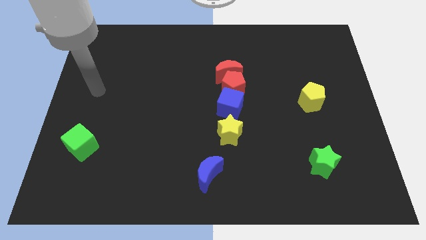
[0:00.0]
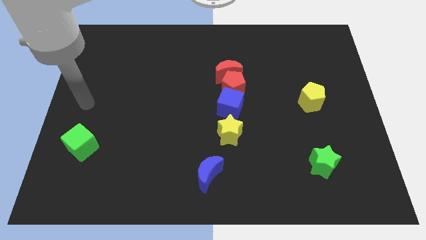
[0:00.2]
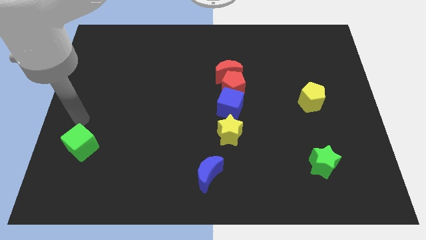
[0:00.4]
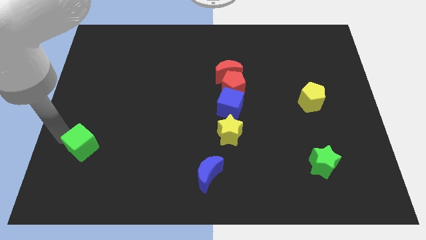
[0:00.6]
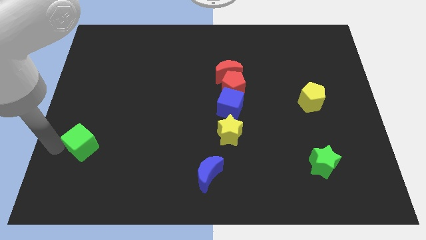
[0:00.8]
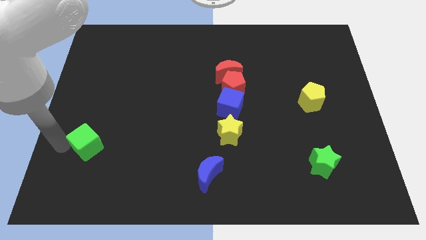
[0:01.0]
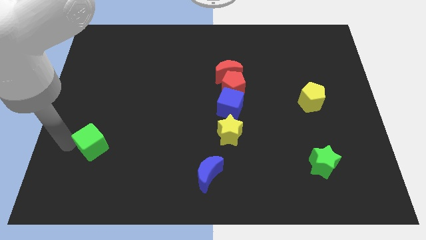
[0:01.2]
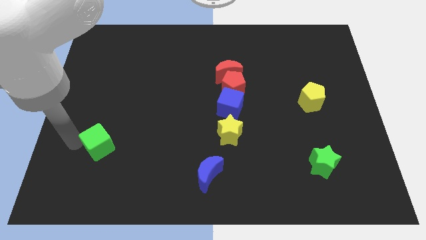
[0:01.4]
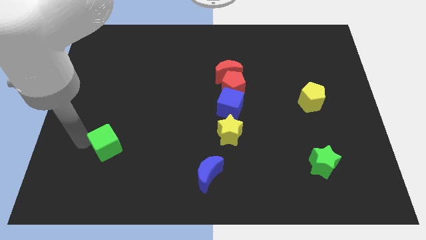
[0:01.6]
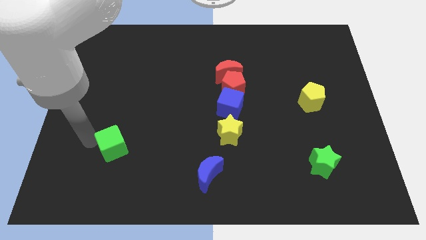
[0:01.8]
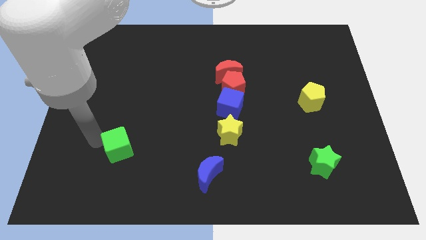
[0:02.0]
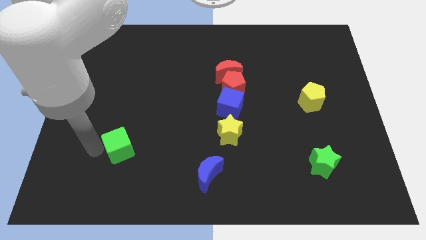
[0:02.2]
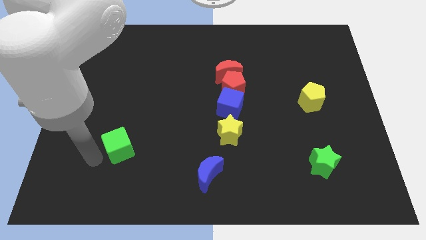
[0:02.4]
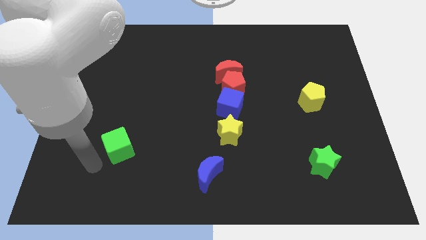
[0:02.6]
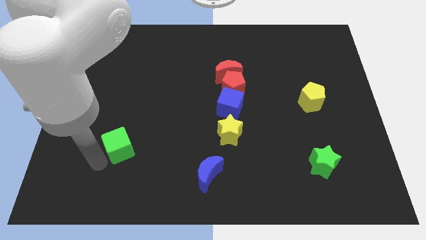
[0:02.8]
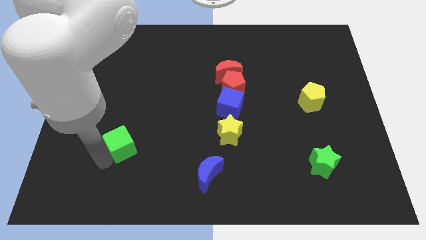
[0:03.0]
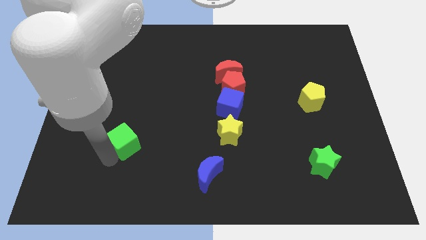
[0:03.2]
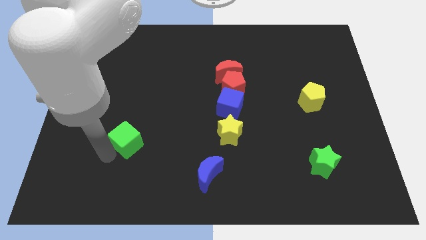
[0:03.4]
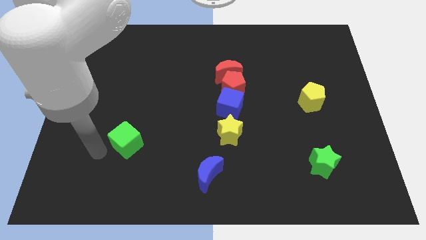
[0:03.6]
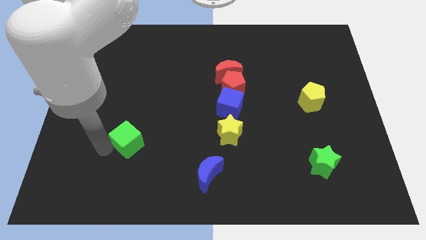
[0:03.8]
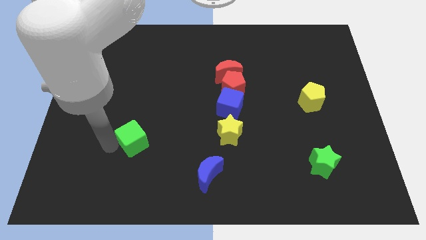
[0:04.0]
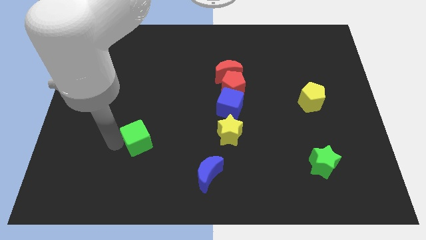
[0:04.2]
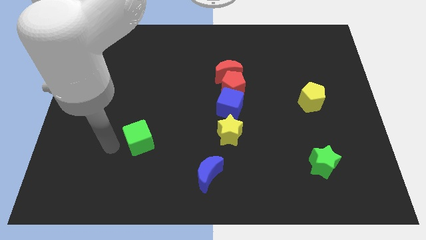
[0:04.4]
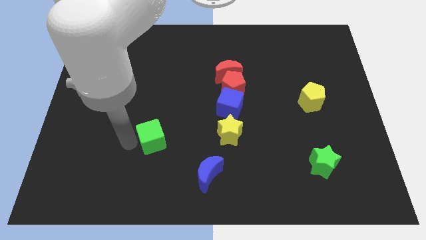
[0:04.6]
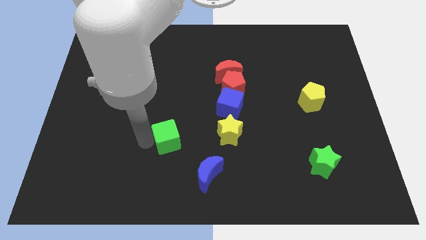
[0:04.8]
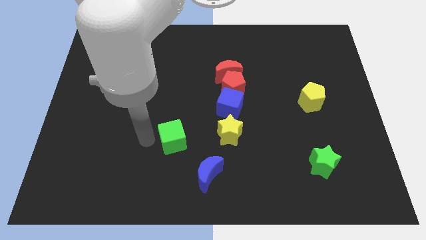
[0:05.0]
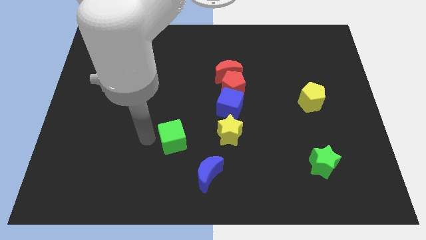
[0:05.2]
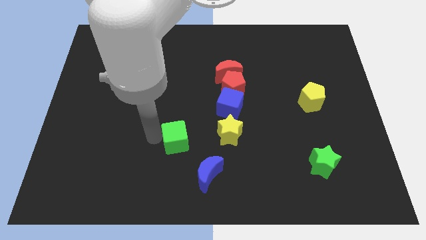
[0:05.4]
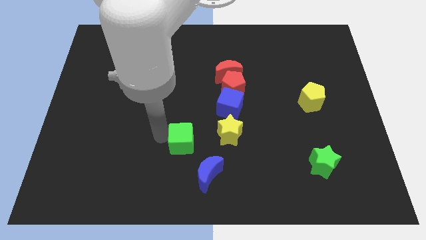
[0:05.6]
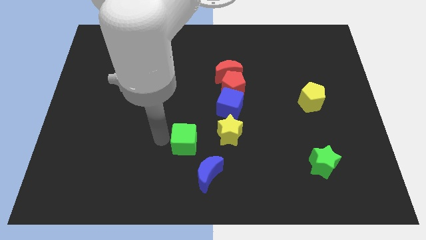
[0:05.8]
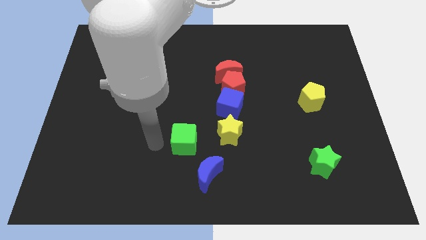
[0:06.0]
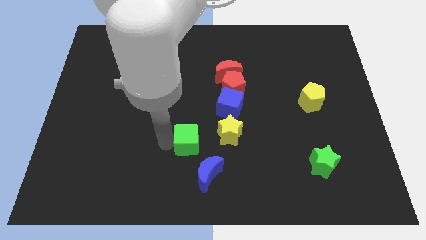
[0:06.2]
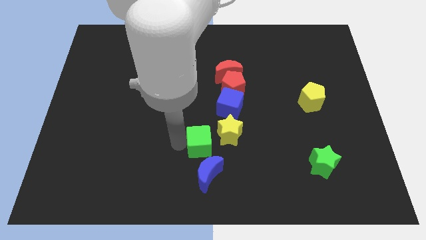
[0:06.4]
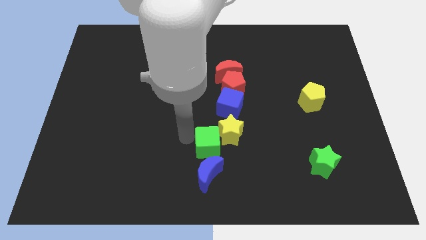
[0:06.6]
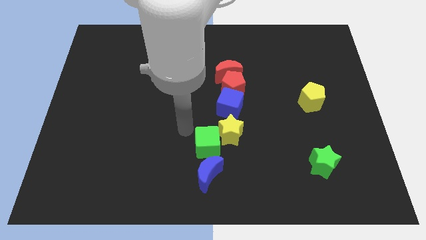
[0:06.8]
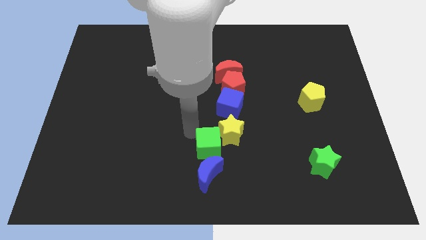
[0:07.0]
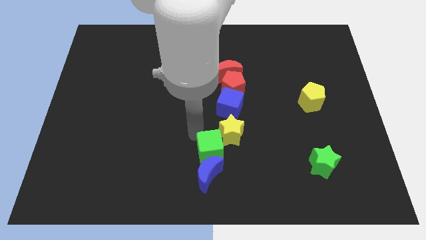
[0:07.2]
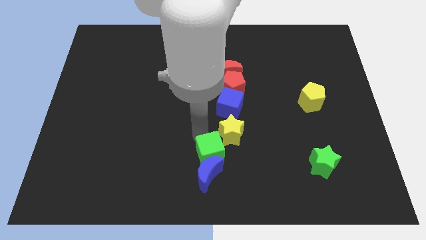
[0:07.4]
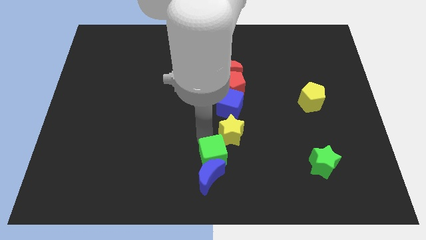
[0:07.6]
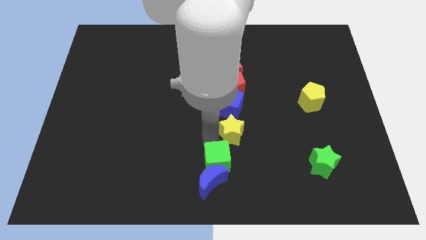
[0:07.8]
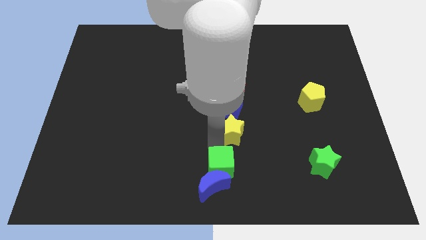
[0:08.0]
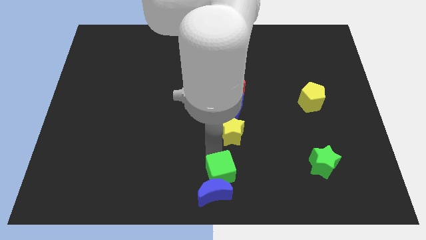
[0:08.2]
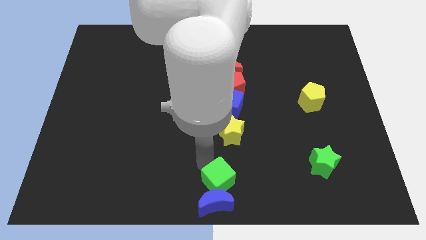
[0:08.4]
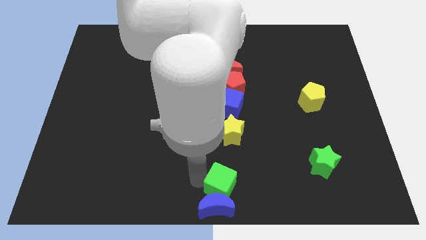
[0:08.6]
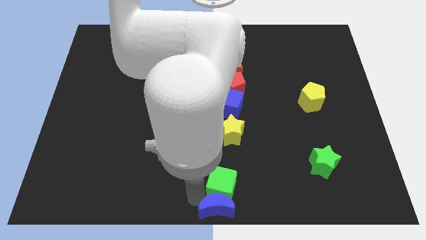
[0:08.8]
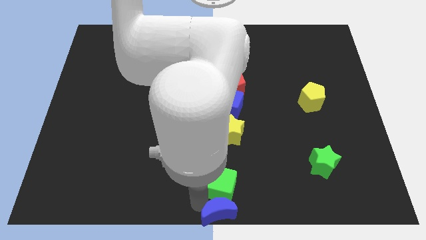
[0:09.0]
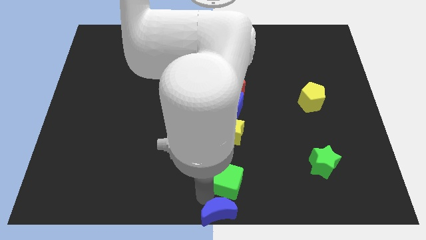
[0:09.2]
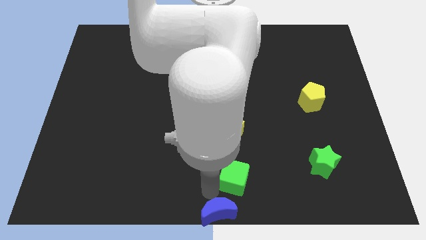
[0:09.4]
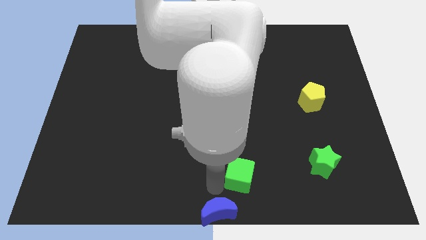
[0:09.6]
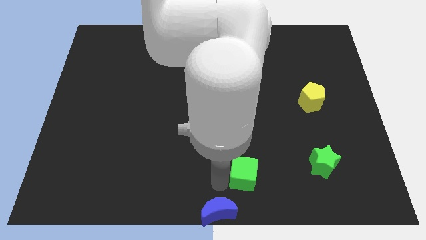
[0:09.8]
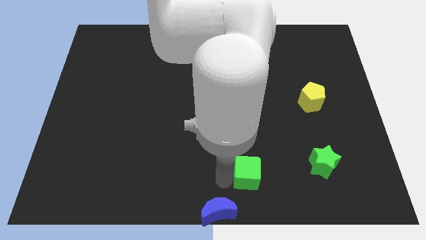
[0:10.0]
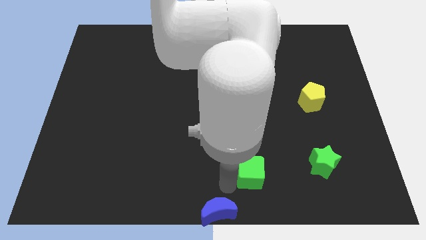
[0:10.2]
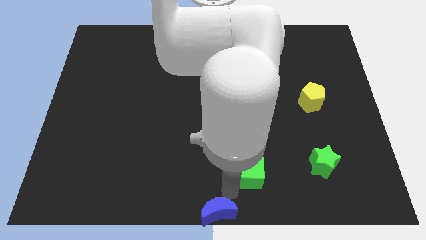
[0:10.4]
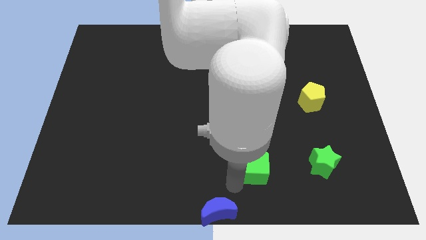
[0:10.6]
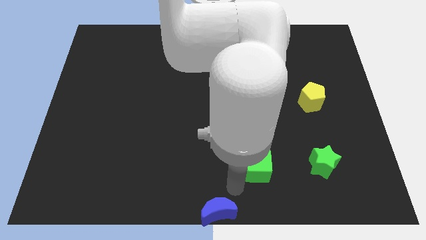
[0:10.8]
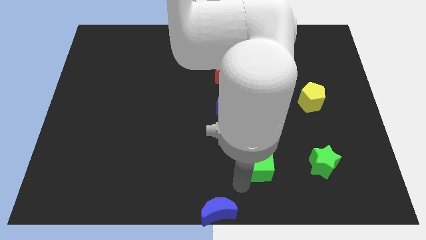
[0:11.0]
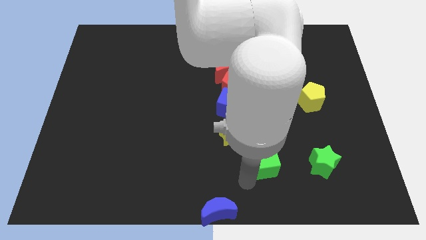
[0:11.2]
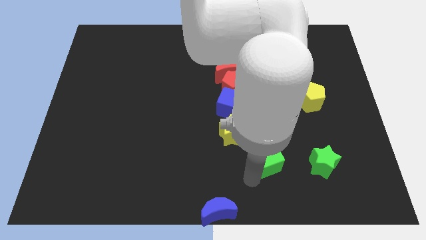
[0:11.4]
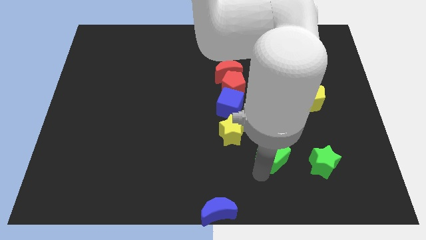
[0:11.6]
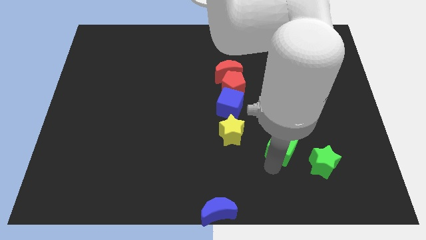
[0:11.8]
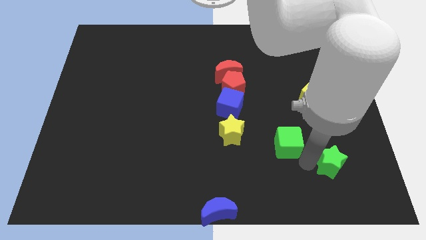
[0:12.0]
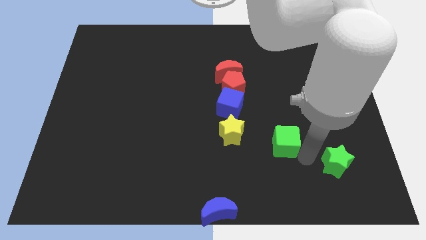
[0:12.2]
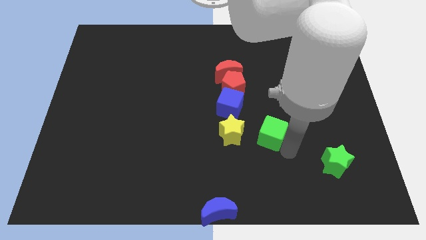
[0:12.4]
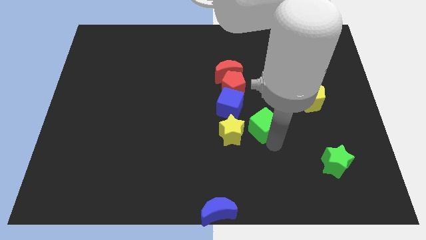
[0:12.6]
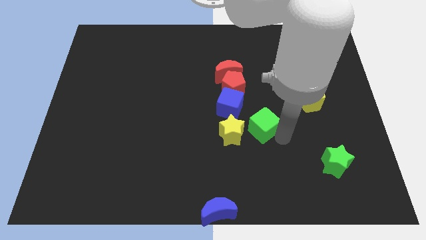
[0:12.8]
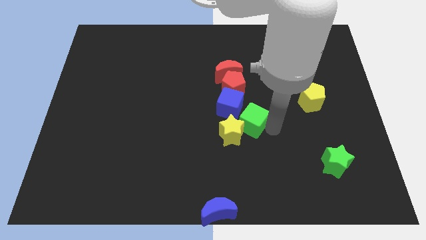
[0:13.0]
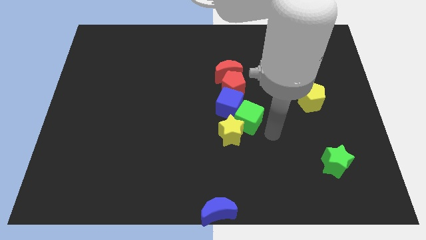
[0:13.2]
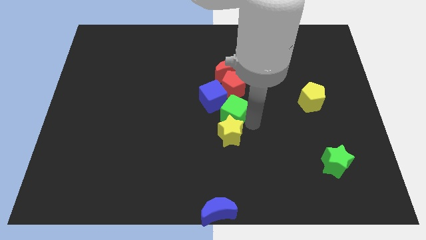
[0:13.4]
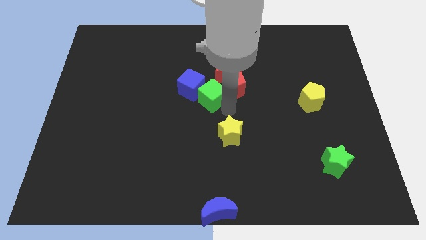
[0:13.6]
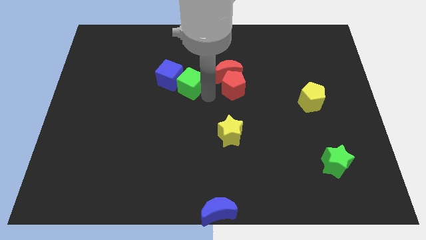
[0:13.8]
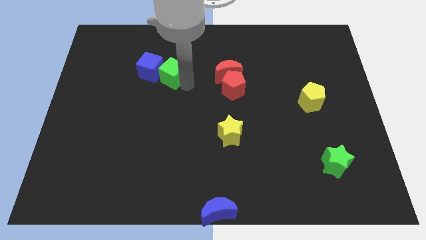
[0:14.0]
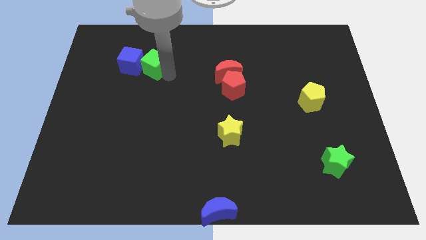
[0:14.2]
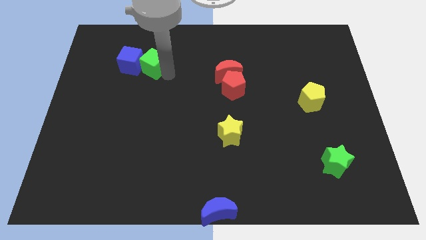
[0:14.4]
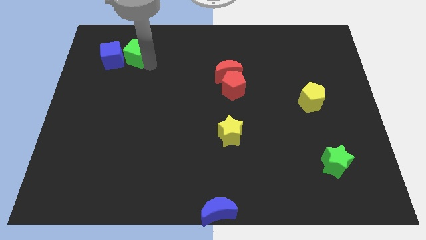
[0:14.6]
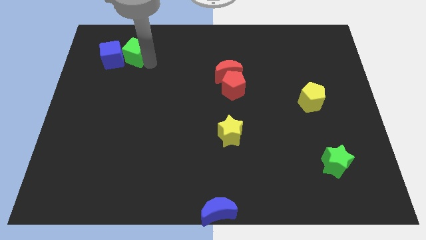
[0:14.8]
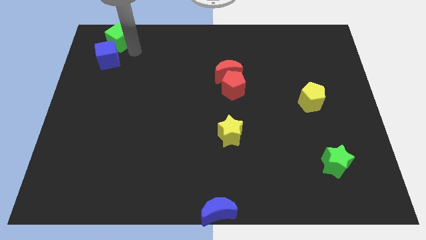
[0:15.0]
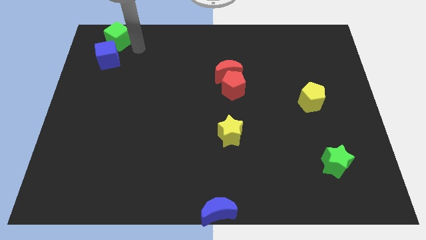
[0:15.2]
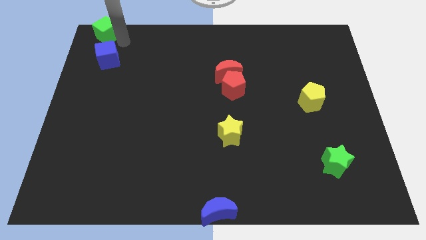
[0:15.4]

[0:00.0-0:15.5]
put the green cube to the top left
